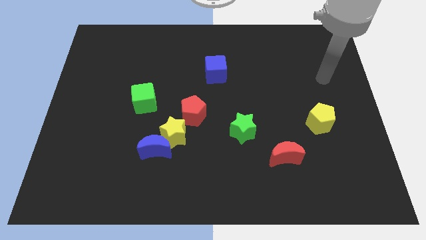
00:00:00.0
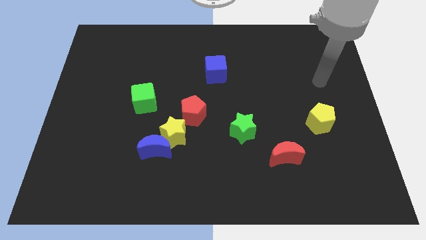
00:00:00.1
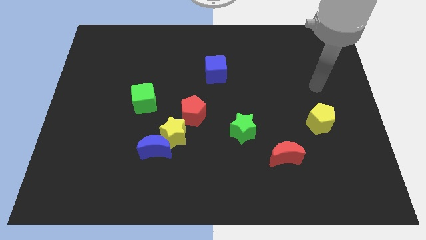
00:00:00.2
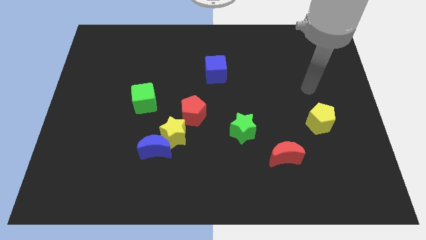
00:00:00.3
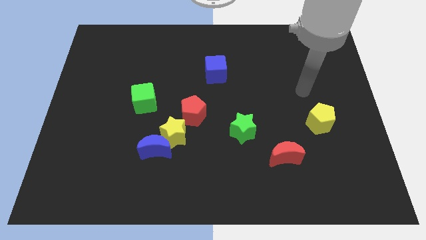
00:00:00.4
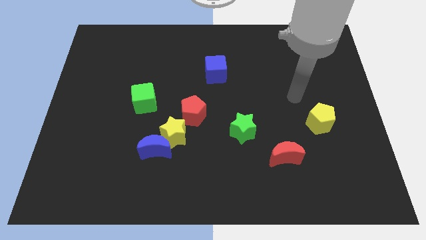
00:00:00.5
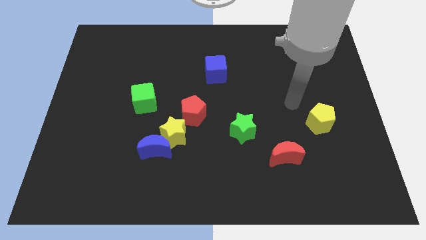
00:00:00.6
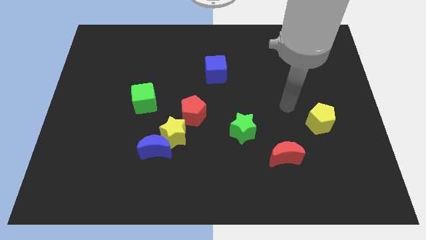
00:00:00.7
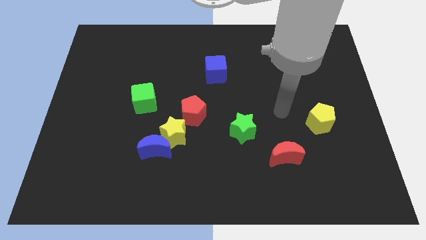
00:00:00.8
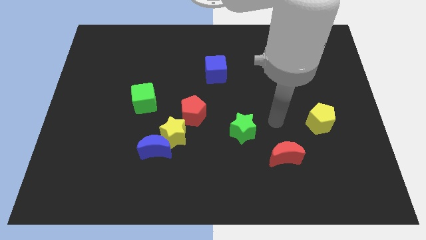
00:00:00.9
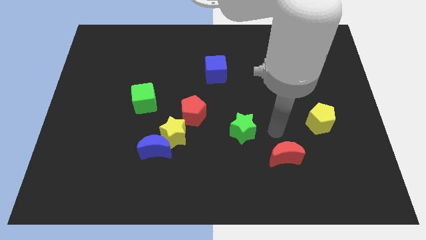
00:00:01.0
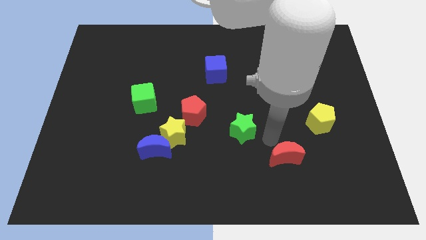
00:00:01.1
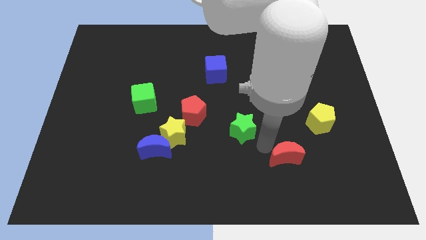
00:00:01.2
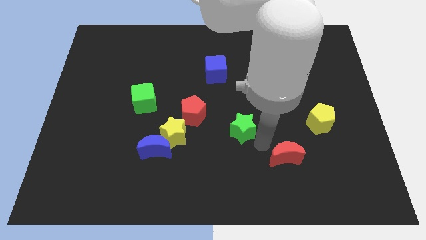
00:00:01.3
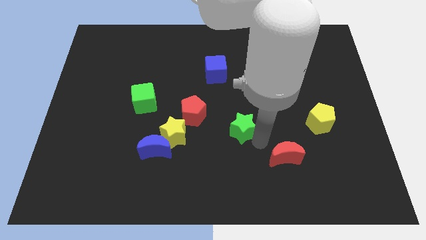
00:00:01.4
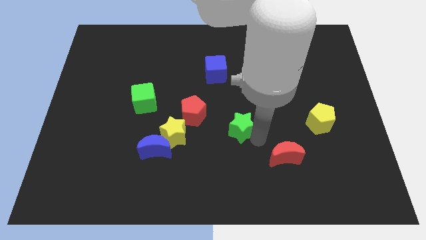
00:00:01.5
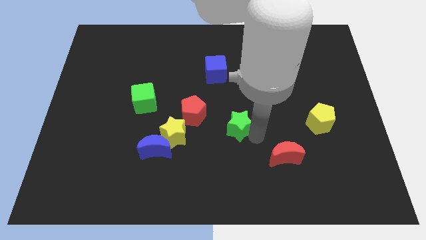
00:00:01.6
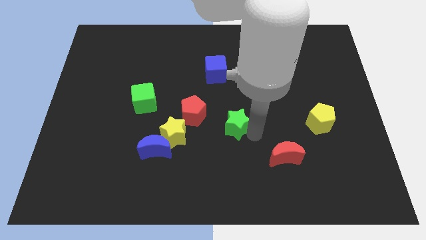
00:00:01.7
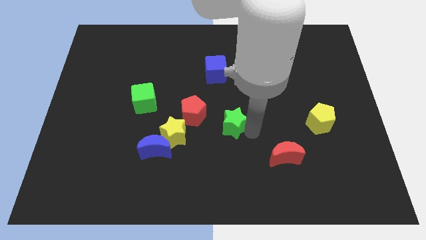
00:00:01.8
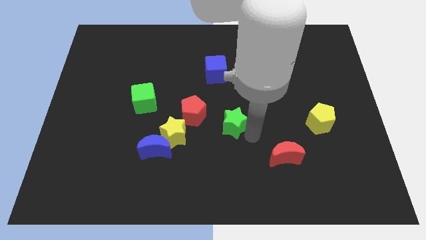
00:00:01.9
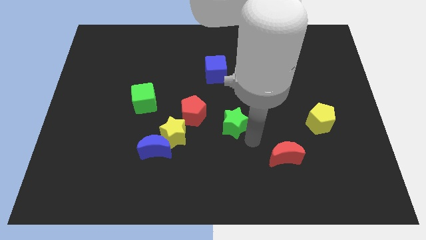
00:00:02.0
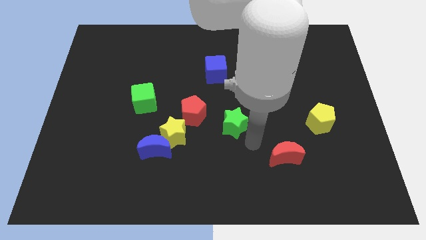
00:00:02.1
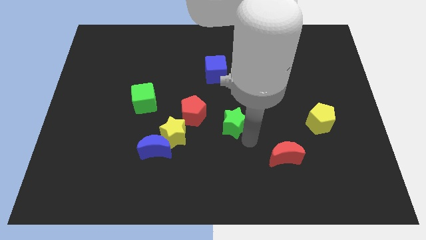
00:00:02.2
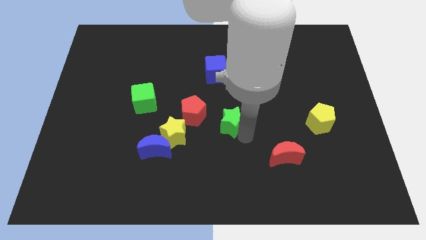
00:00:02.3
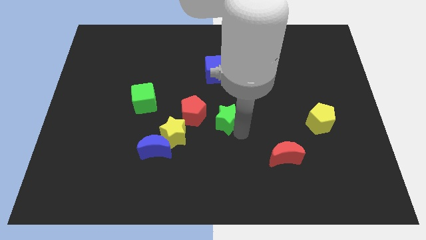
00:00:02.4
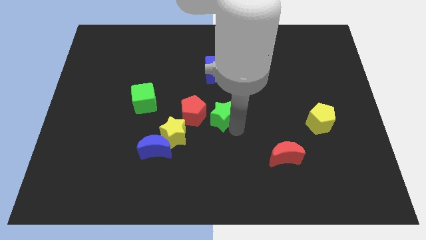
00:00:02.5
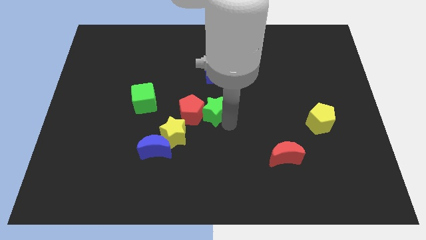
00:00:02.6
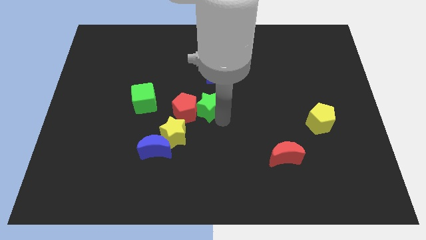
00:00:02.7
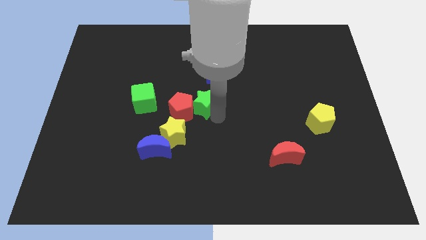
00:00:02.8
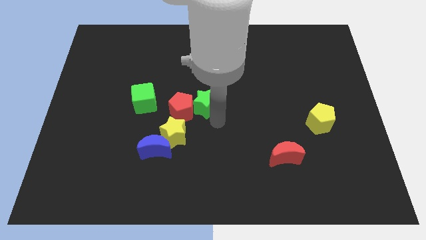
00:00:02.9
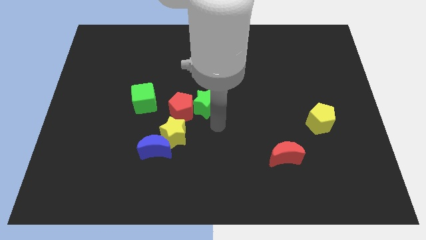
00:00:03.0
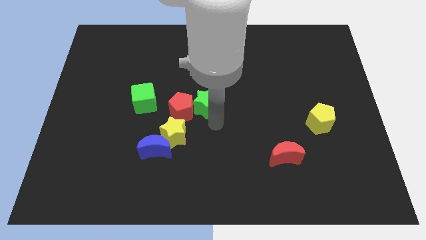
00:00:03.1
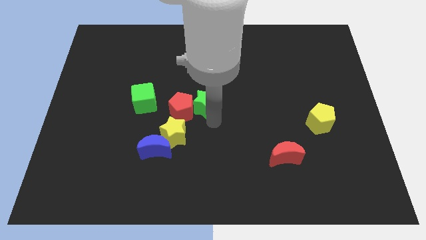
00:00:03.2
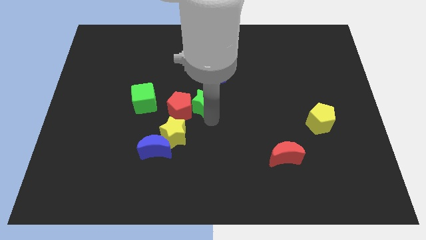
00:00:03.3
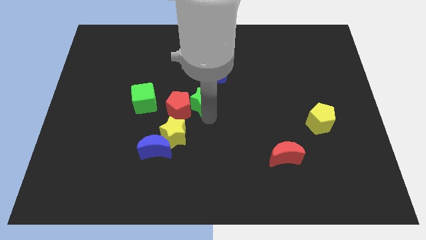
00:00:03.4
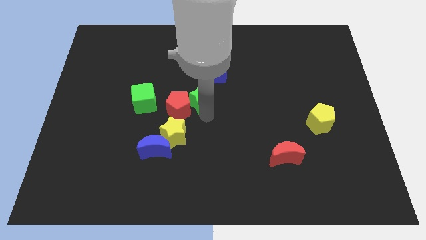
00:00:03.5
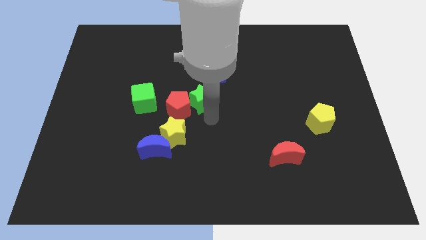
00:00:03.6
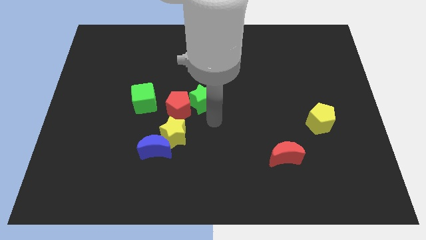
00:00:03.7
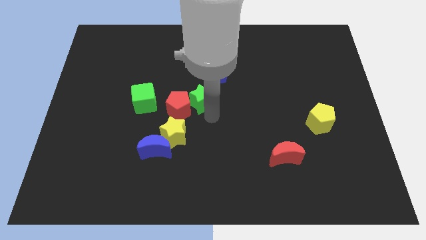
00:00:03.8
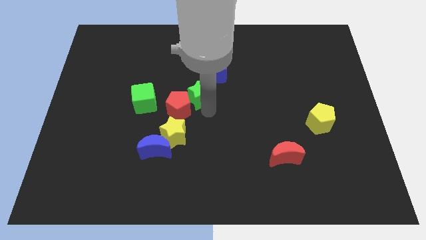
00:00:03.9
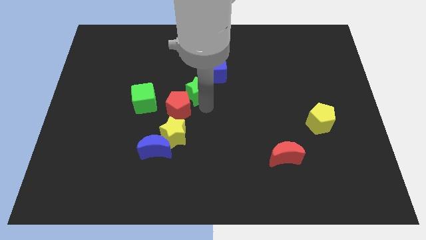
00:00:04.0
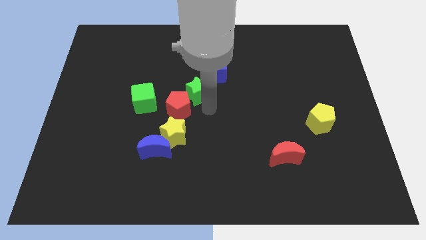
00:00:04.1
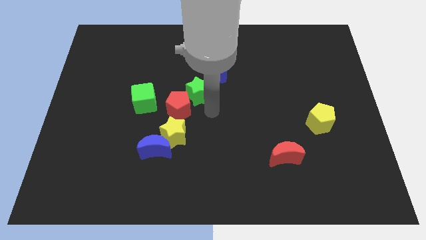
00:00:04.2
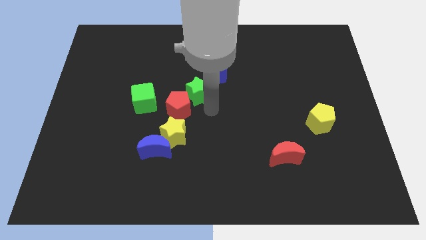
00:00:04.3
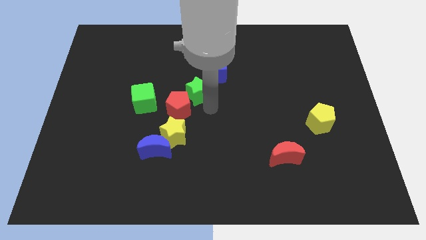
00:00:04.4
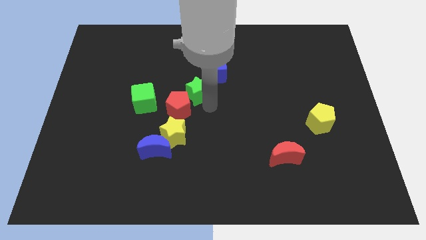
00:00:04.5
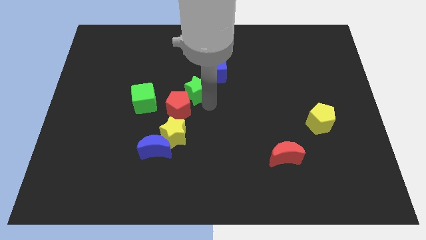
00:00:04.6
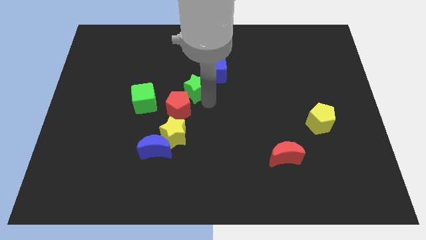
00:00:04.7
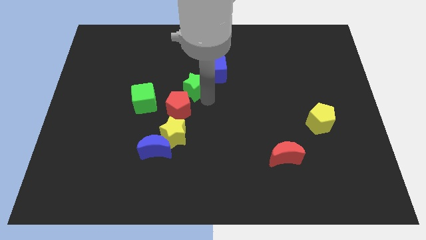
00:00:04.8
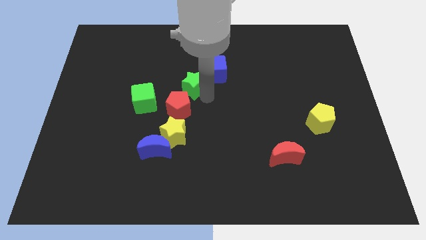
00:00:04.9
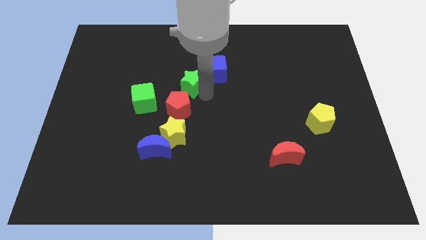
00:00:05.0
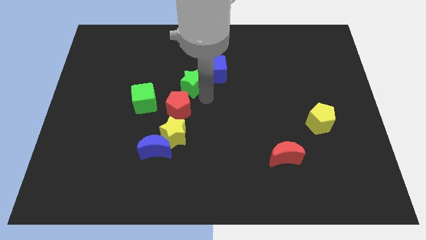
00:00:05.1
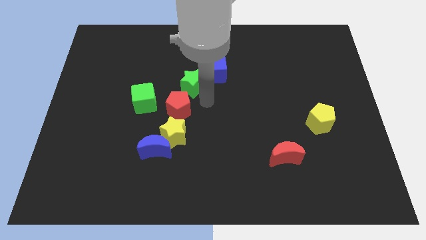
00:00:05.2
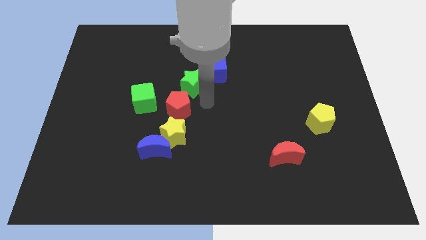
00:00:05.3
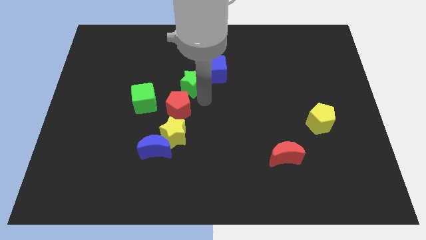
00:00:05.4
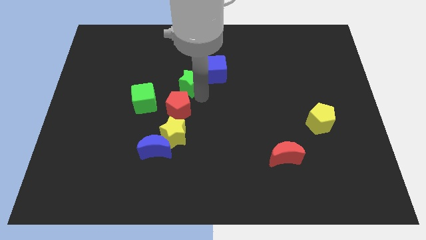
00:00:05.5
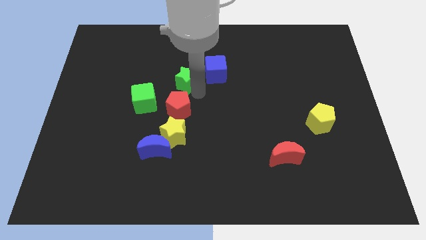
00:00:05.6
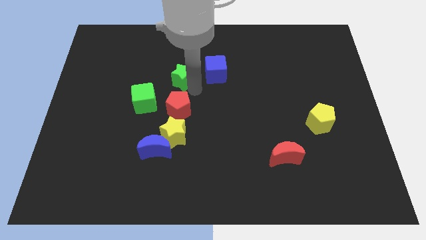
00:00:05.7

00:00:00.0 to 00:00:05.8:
move the green star up and to the left diagonally

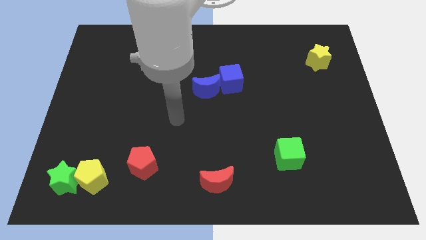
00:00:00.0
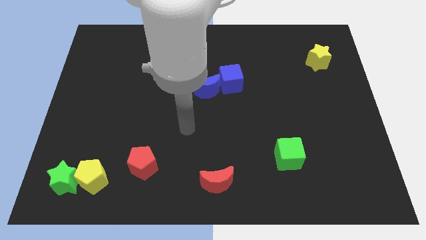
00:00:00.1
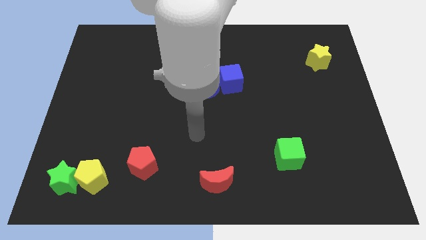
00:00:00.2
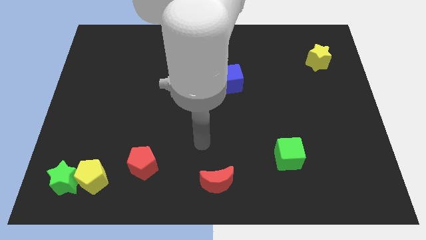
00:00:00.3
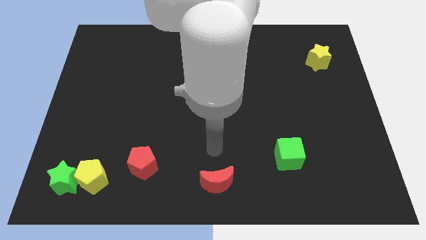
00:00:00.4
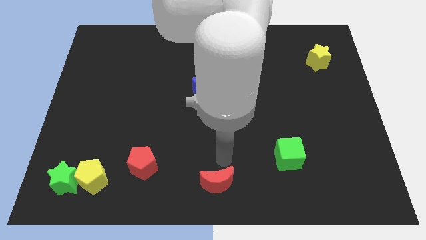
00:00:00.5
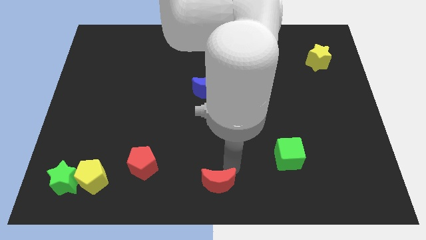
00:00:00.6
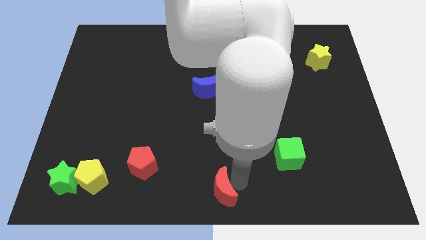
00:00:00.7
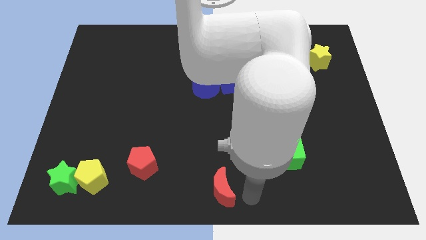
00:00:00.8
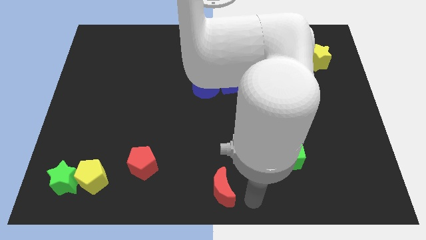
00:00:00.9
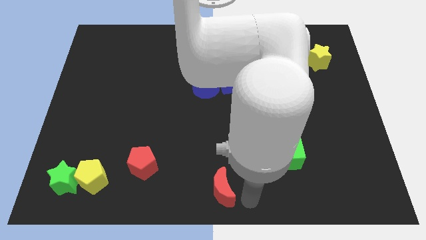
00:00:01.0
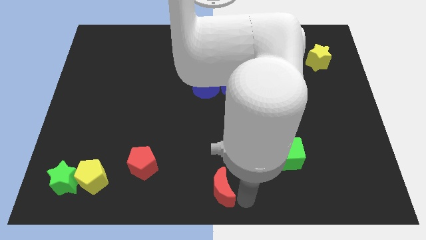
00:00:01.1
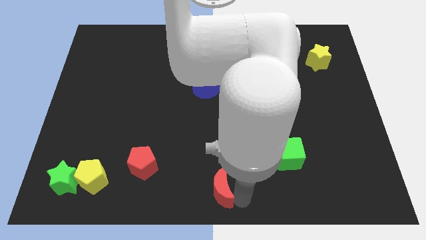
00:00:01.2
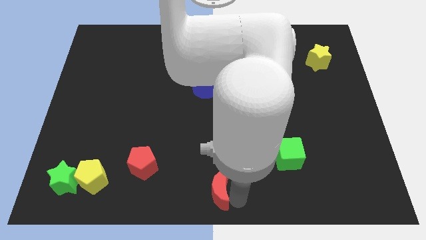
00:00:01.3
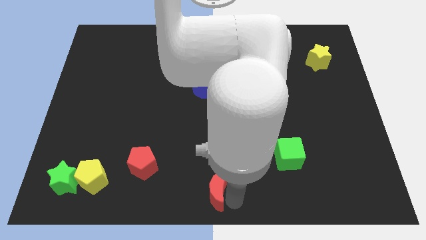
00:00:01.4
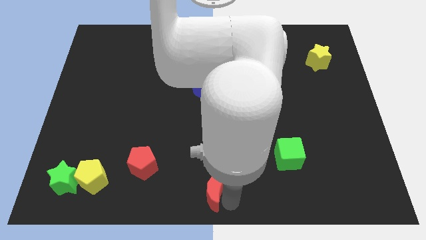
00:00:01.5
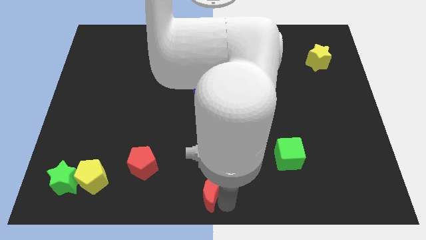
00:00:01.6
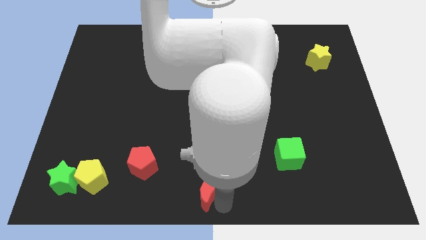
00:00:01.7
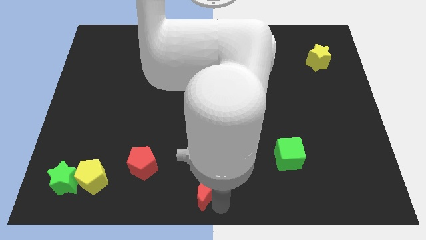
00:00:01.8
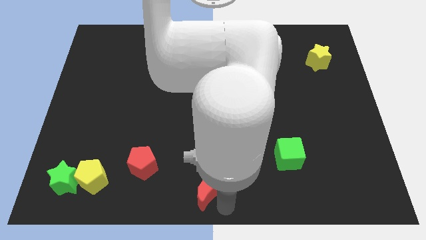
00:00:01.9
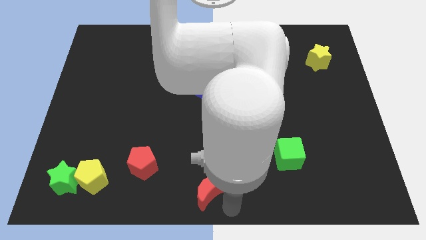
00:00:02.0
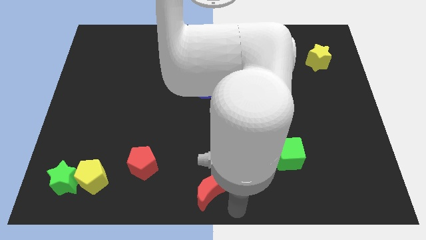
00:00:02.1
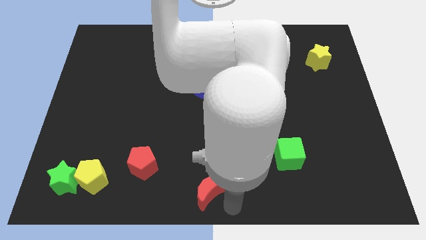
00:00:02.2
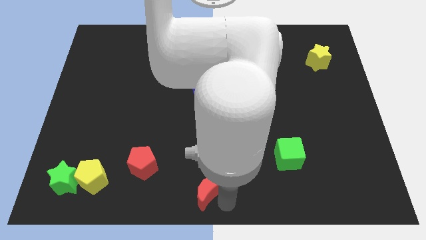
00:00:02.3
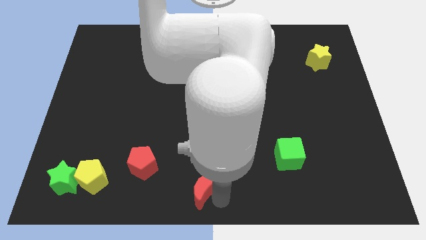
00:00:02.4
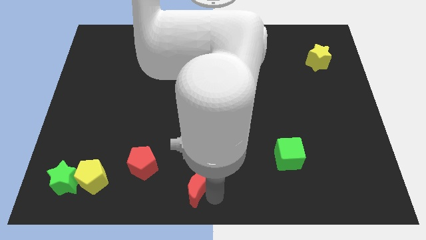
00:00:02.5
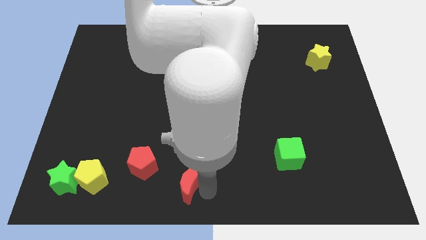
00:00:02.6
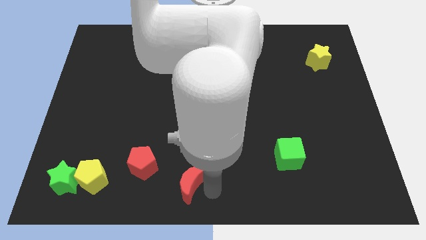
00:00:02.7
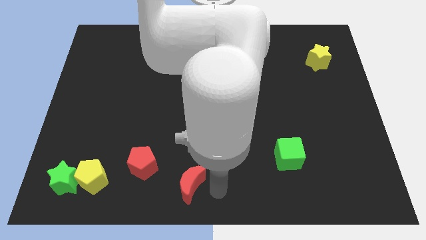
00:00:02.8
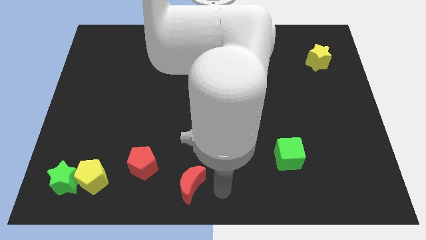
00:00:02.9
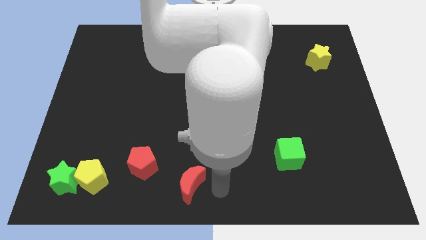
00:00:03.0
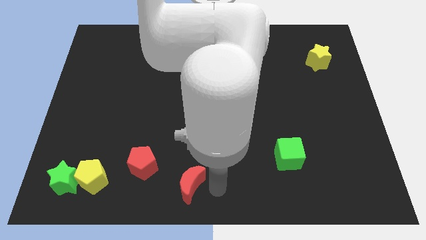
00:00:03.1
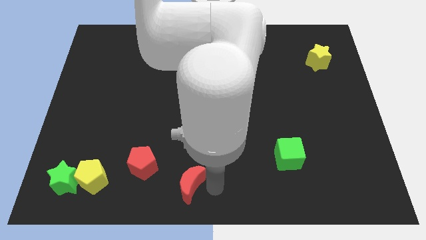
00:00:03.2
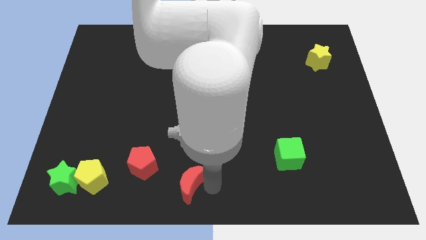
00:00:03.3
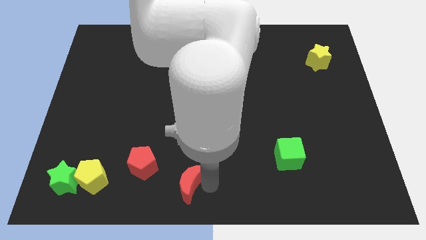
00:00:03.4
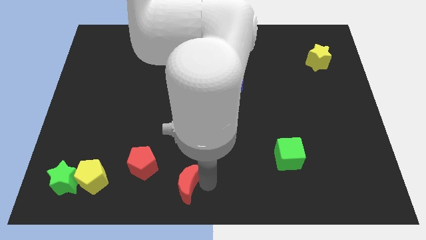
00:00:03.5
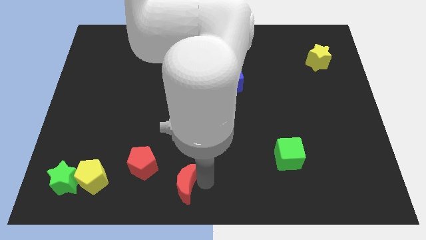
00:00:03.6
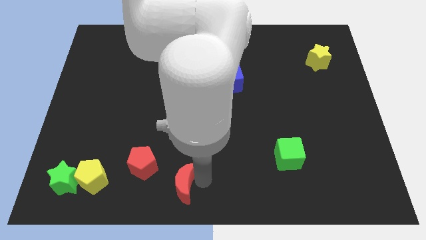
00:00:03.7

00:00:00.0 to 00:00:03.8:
slide the red moon a little left
